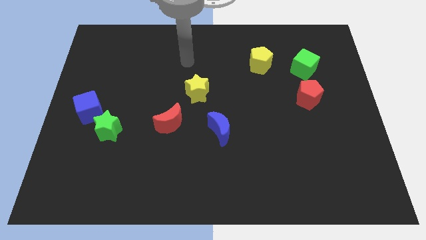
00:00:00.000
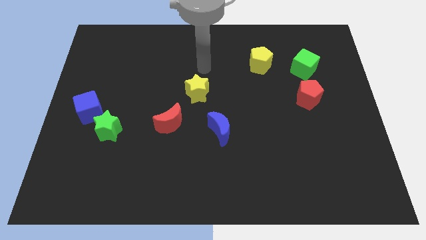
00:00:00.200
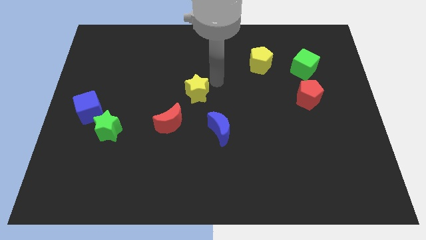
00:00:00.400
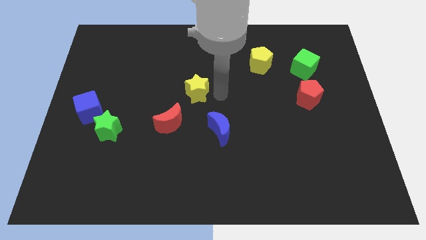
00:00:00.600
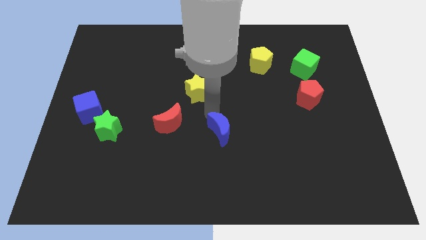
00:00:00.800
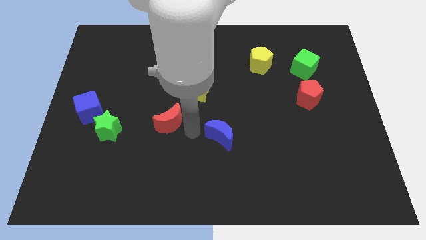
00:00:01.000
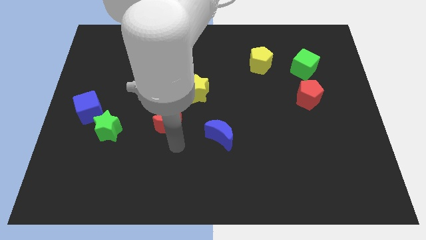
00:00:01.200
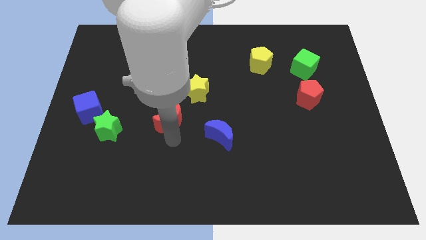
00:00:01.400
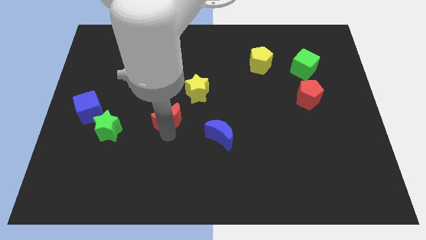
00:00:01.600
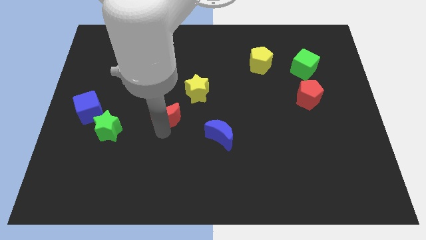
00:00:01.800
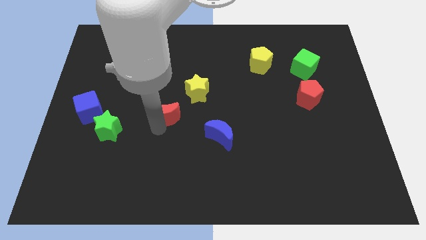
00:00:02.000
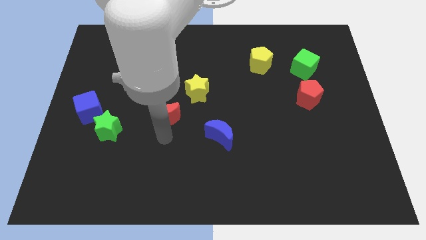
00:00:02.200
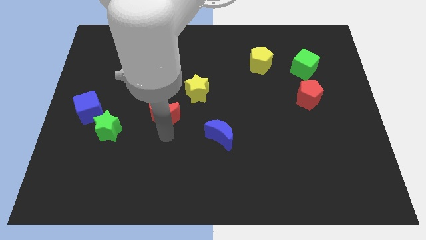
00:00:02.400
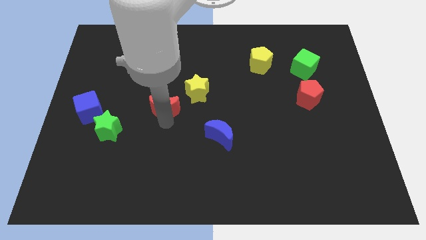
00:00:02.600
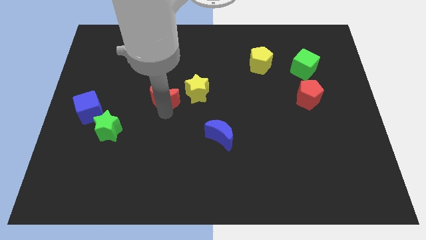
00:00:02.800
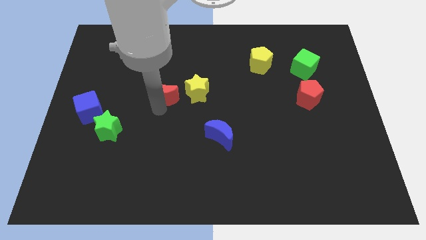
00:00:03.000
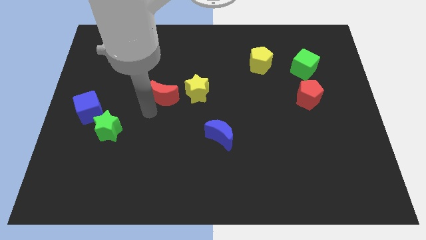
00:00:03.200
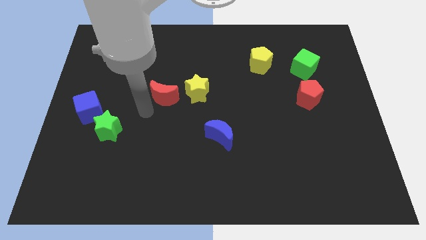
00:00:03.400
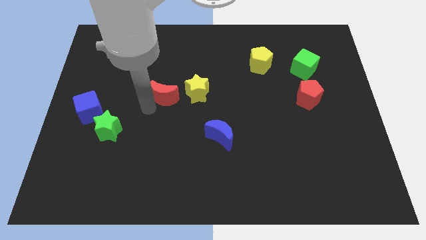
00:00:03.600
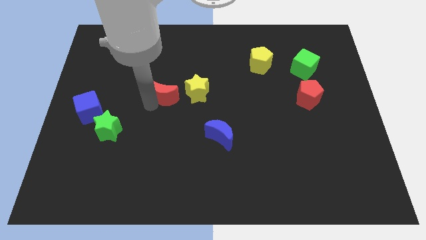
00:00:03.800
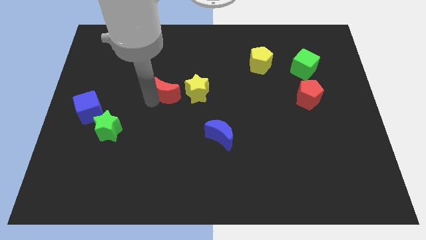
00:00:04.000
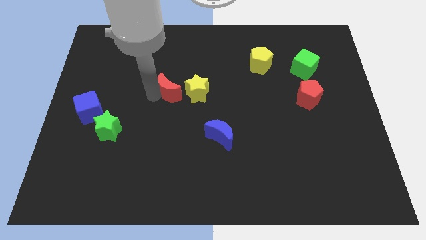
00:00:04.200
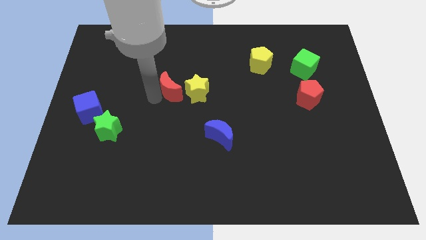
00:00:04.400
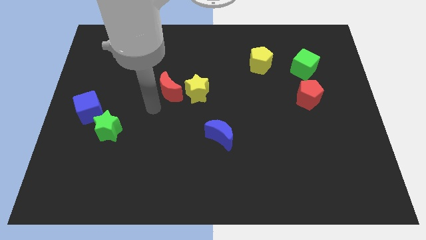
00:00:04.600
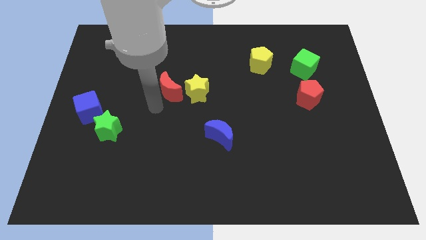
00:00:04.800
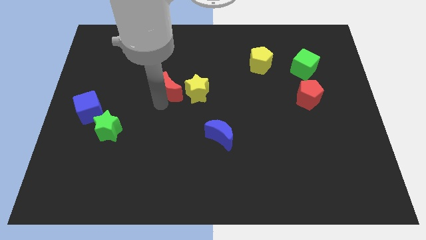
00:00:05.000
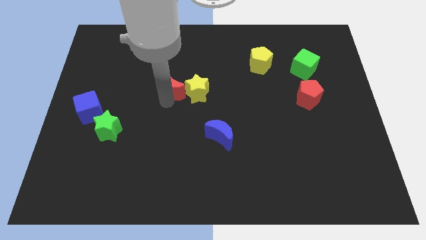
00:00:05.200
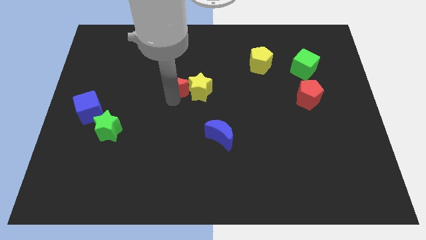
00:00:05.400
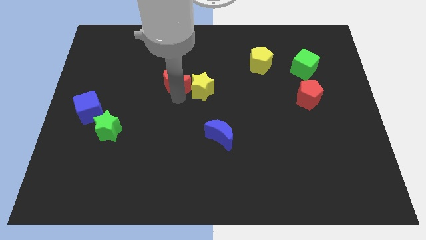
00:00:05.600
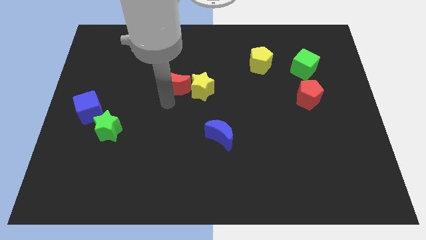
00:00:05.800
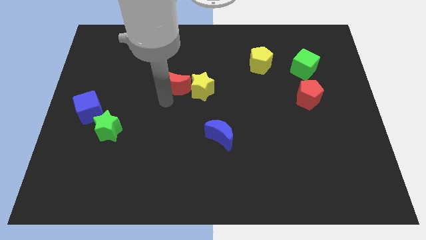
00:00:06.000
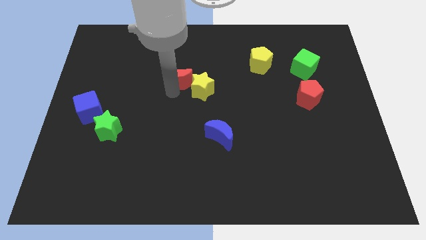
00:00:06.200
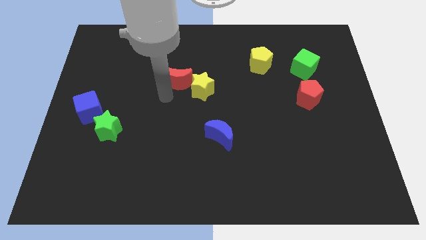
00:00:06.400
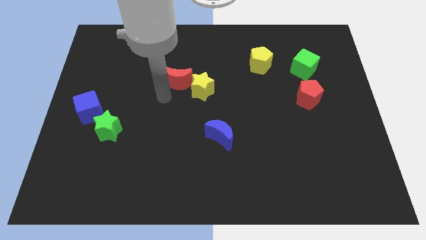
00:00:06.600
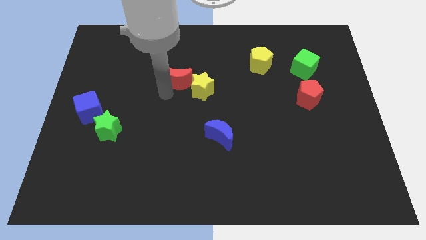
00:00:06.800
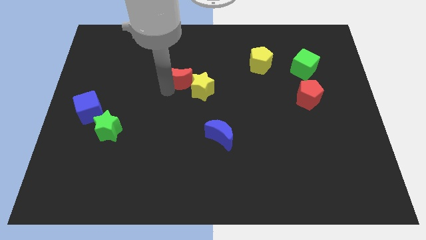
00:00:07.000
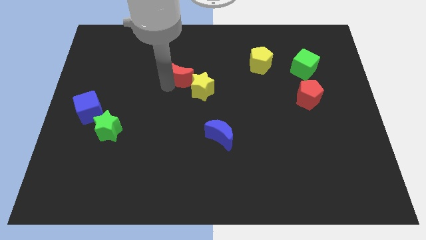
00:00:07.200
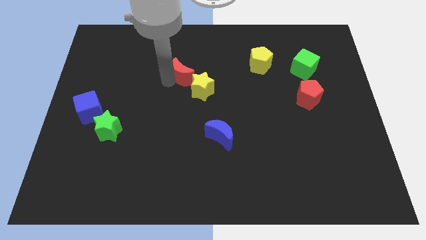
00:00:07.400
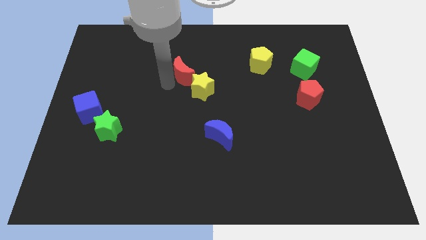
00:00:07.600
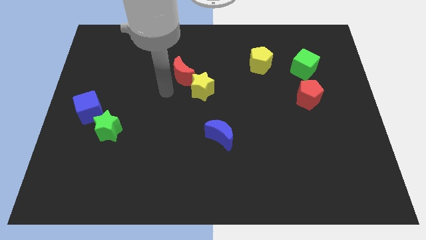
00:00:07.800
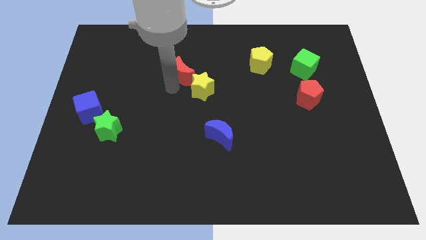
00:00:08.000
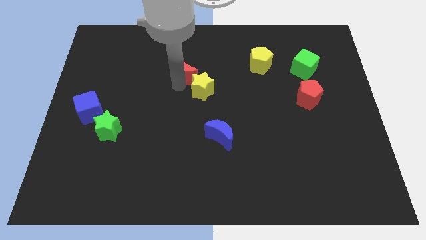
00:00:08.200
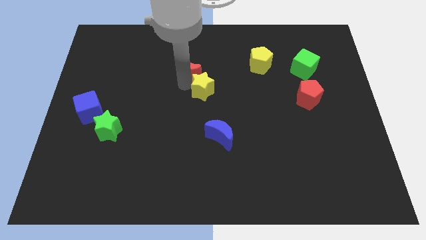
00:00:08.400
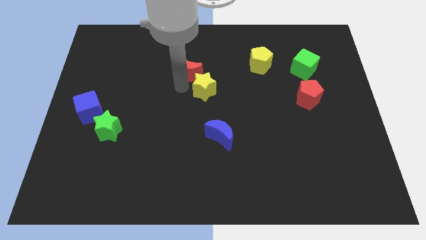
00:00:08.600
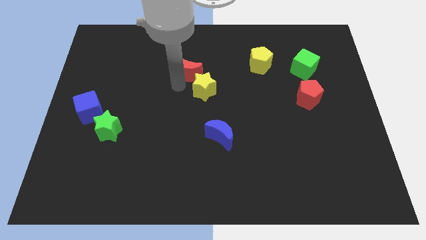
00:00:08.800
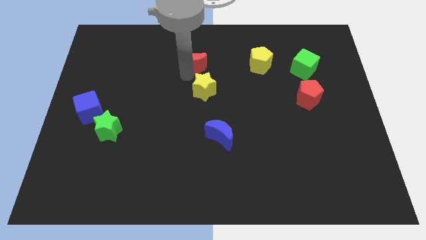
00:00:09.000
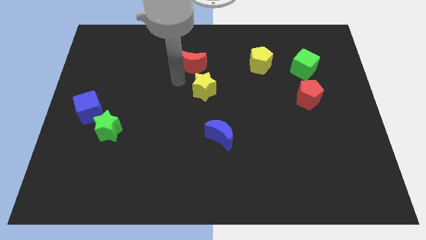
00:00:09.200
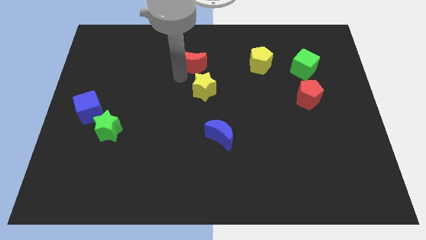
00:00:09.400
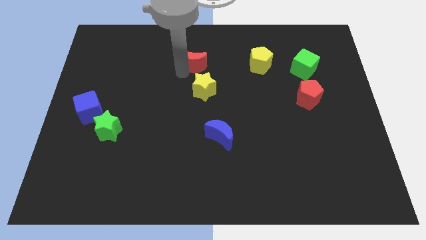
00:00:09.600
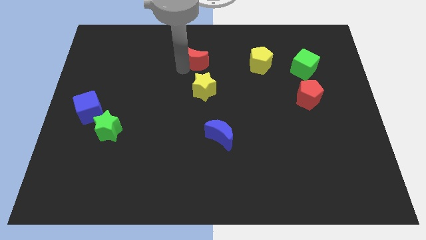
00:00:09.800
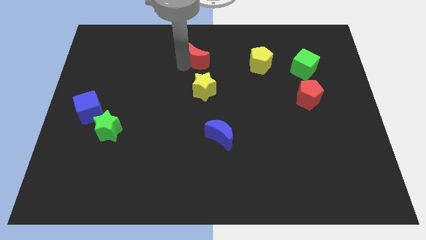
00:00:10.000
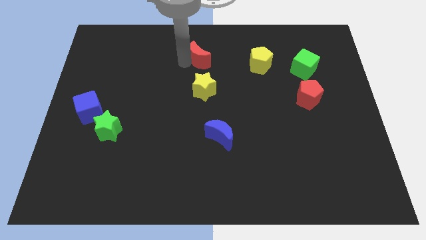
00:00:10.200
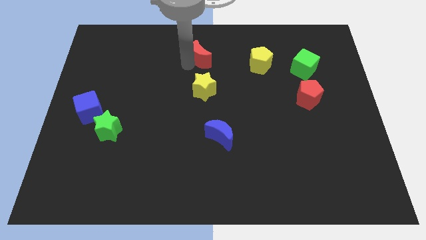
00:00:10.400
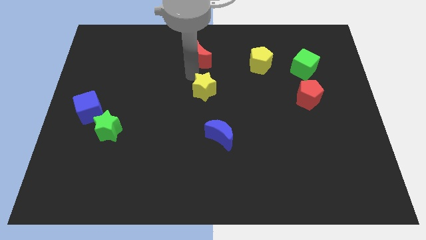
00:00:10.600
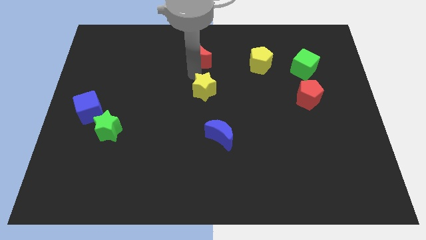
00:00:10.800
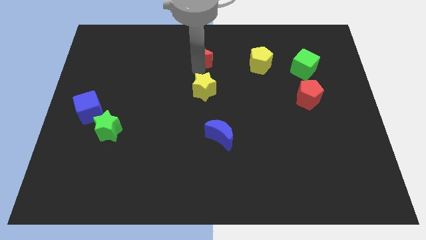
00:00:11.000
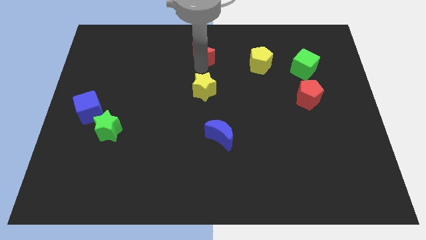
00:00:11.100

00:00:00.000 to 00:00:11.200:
push the red moon to the top side

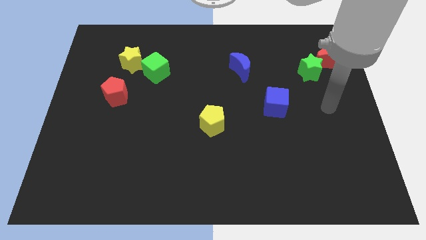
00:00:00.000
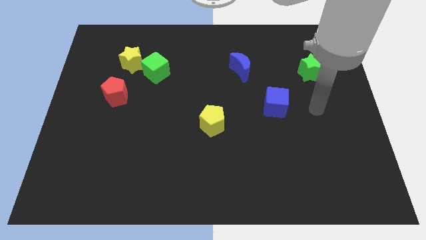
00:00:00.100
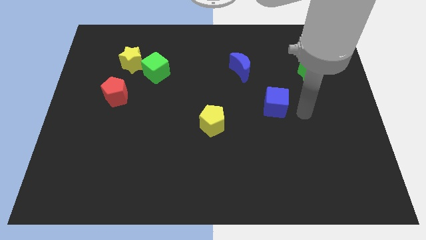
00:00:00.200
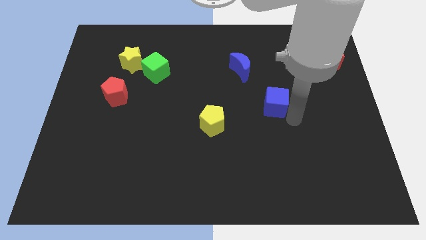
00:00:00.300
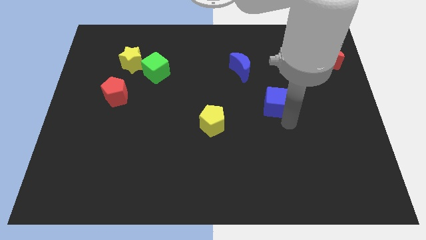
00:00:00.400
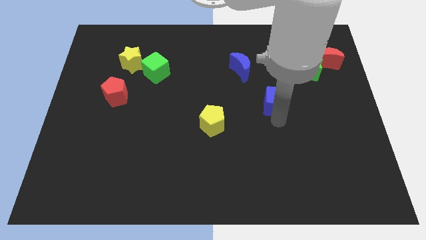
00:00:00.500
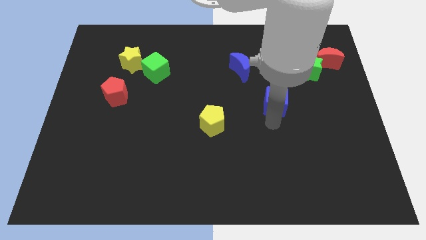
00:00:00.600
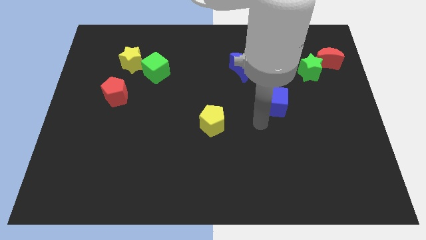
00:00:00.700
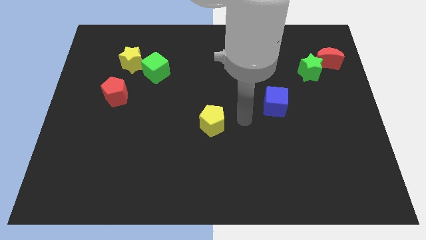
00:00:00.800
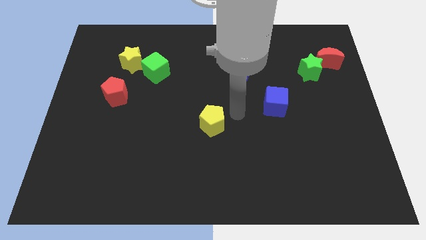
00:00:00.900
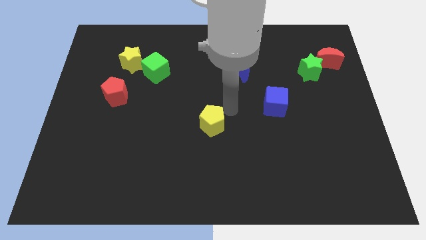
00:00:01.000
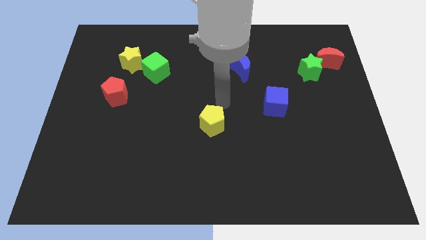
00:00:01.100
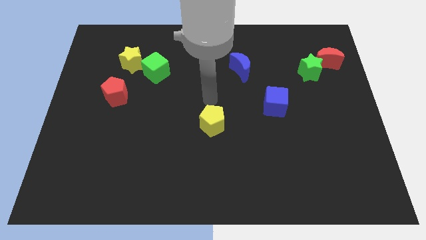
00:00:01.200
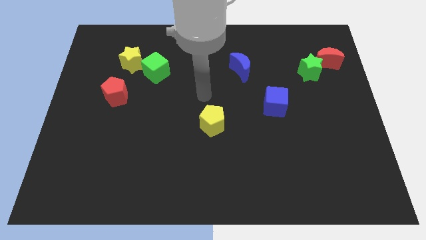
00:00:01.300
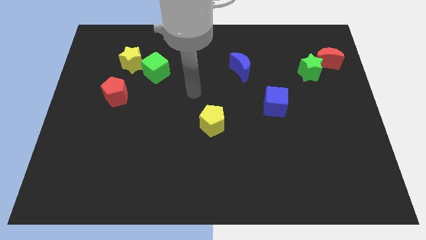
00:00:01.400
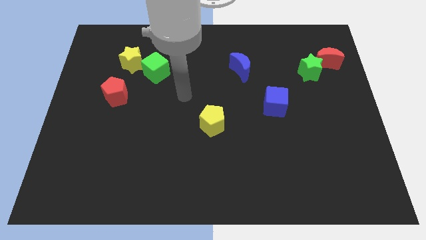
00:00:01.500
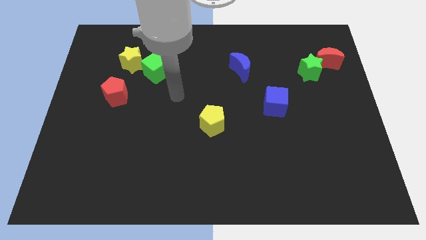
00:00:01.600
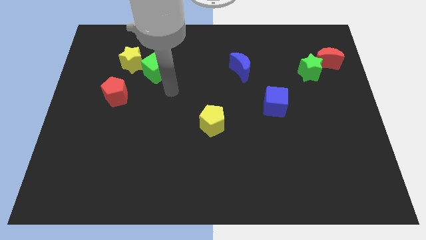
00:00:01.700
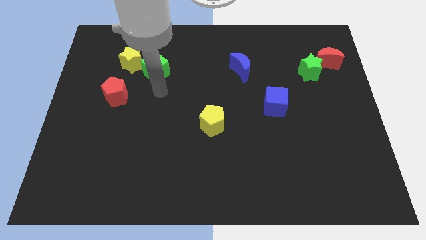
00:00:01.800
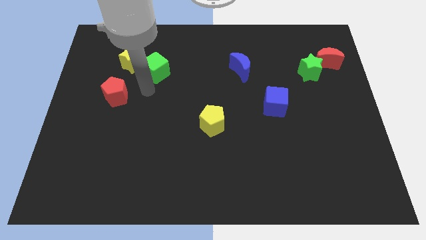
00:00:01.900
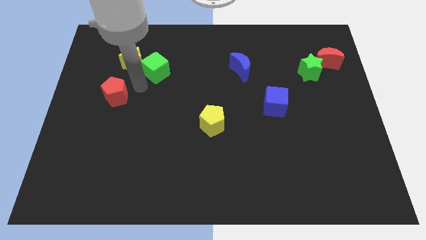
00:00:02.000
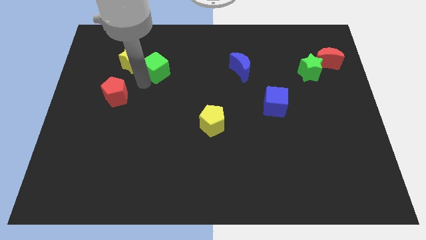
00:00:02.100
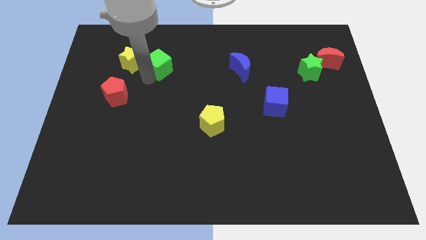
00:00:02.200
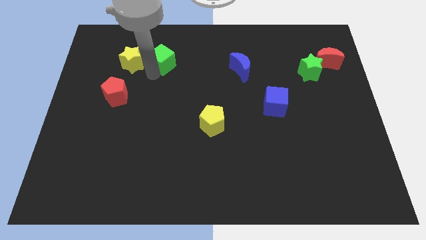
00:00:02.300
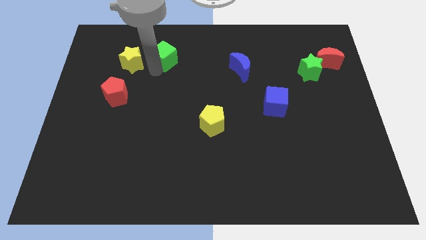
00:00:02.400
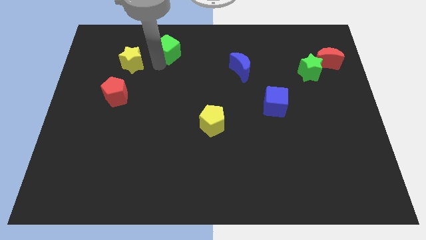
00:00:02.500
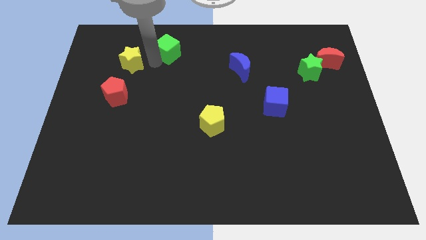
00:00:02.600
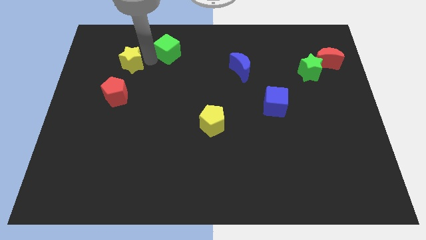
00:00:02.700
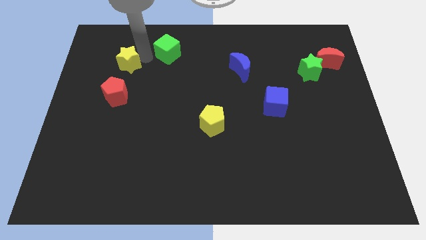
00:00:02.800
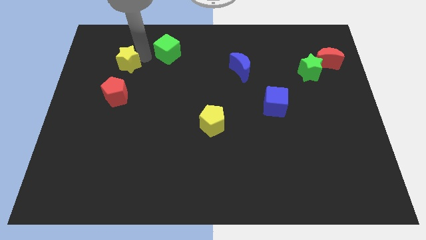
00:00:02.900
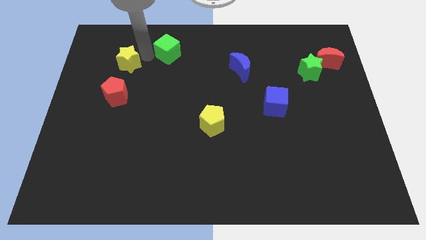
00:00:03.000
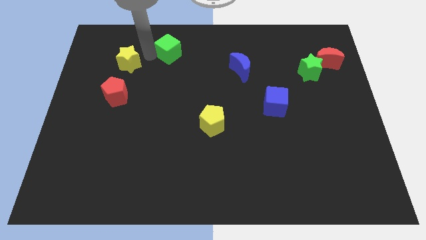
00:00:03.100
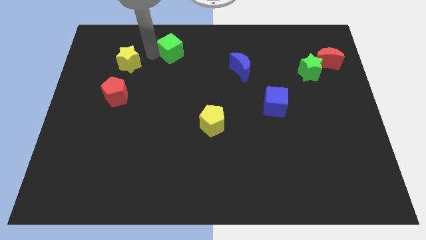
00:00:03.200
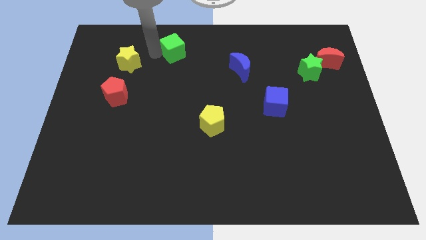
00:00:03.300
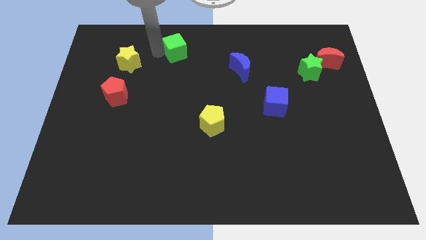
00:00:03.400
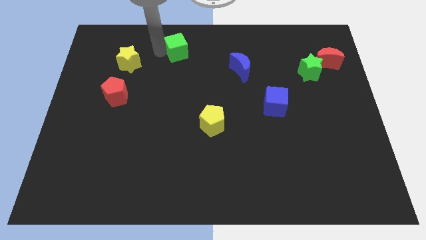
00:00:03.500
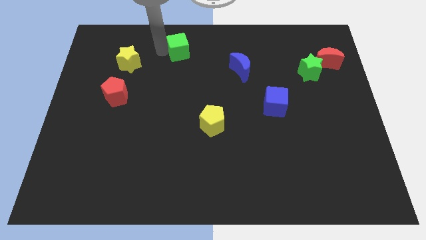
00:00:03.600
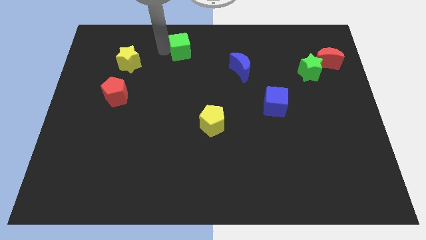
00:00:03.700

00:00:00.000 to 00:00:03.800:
move the green cube to the towards your base
